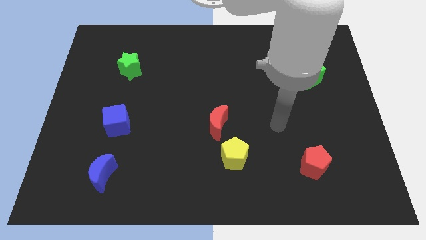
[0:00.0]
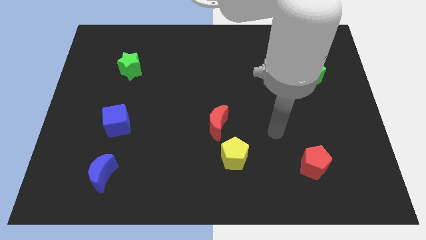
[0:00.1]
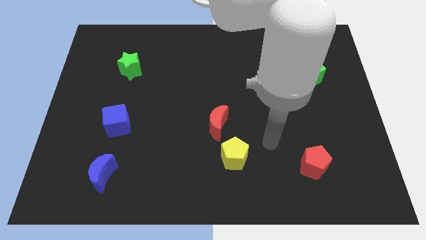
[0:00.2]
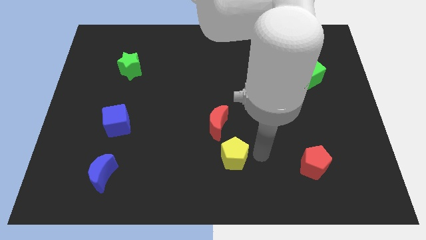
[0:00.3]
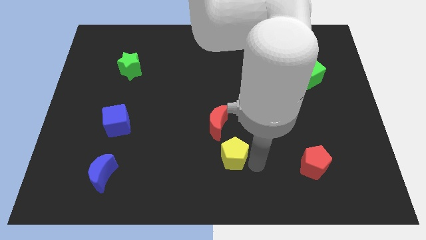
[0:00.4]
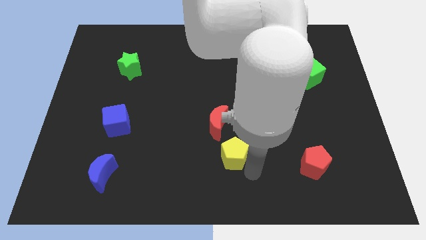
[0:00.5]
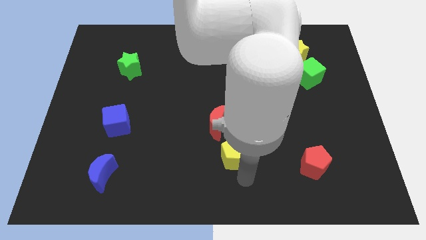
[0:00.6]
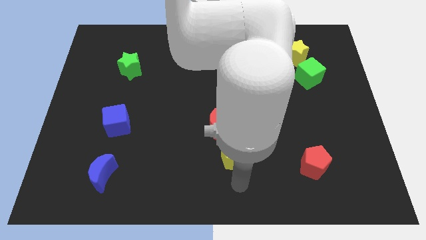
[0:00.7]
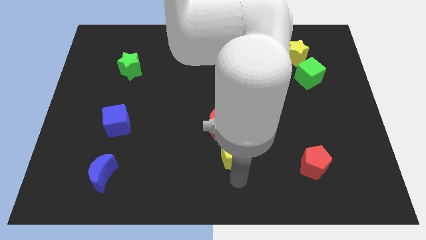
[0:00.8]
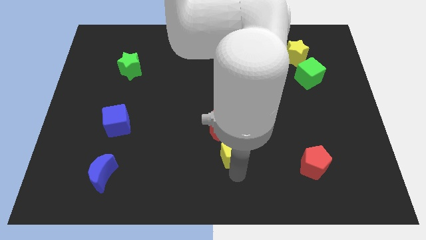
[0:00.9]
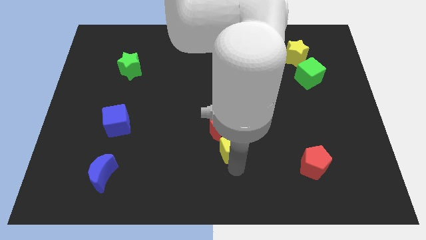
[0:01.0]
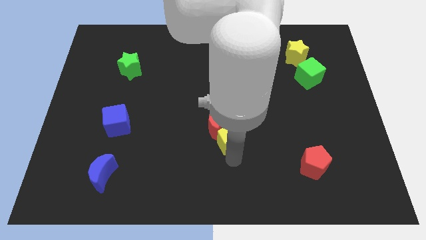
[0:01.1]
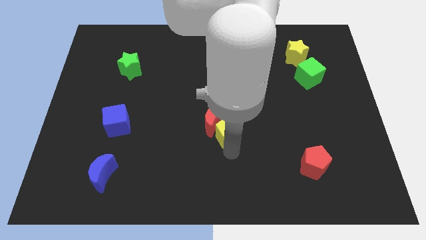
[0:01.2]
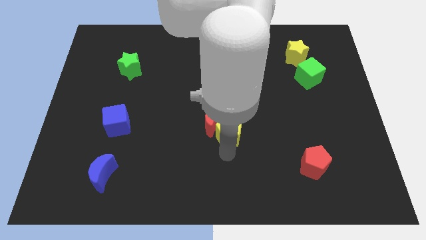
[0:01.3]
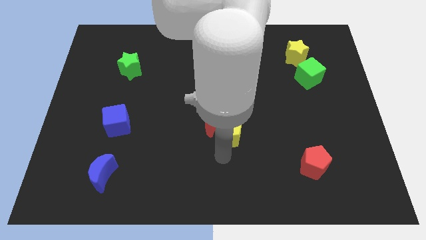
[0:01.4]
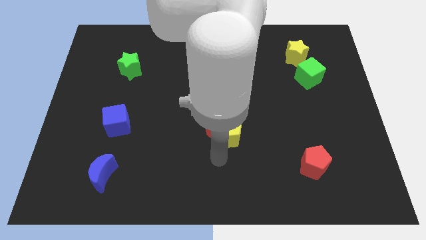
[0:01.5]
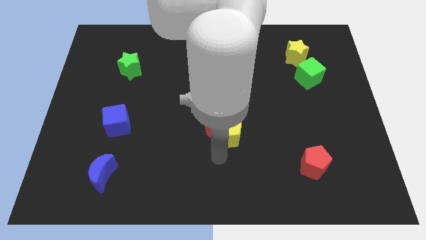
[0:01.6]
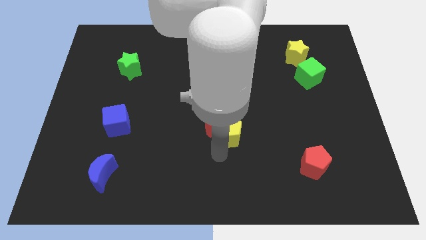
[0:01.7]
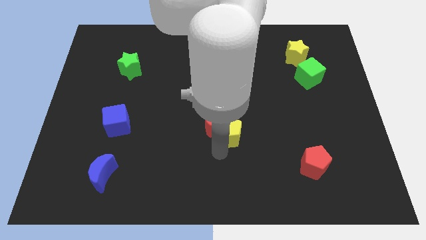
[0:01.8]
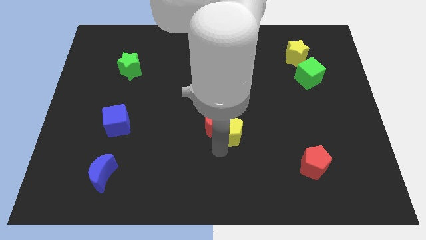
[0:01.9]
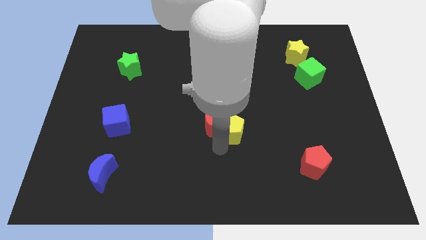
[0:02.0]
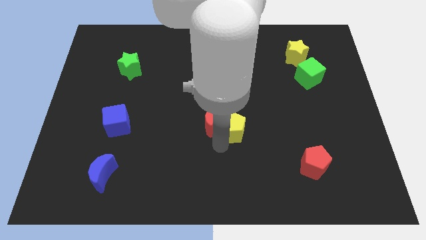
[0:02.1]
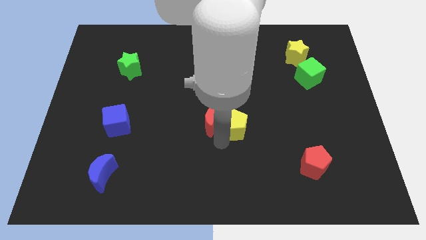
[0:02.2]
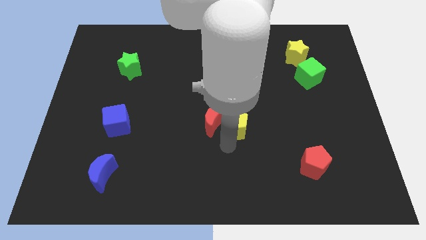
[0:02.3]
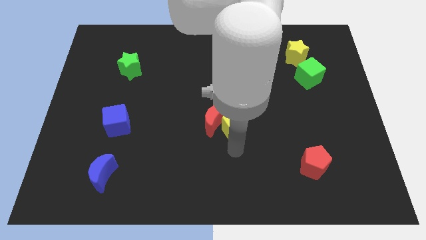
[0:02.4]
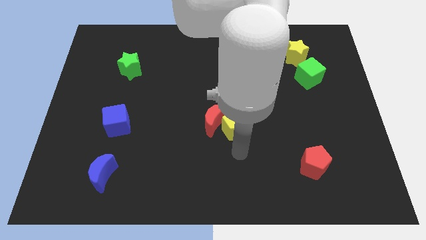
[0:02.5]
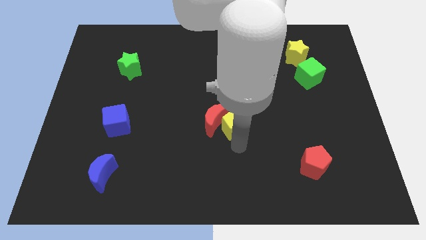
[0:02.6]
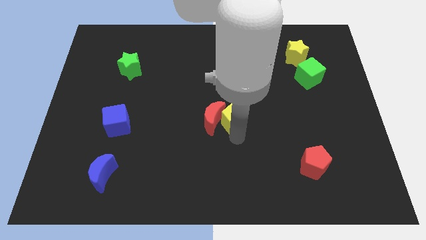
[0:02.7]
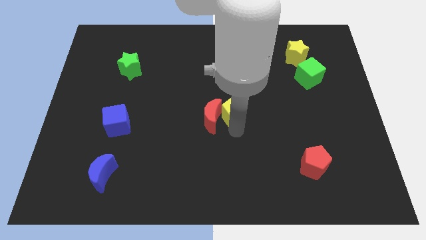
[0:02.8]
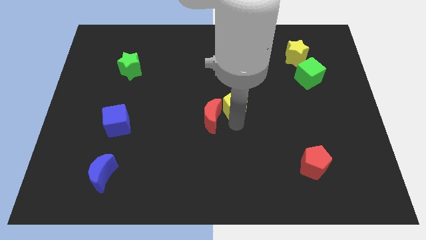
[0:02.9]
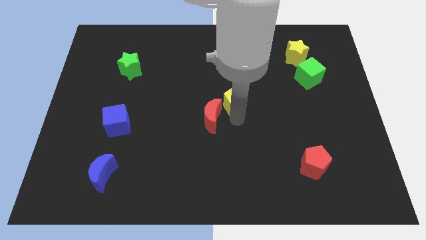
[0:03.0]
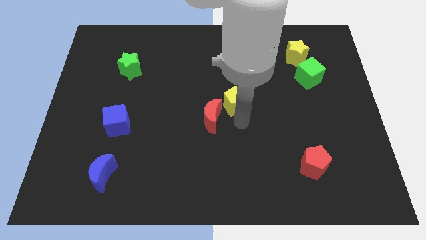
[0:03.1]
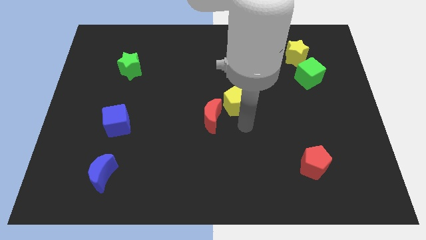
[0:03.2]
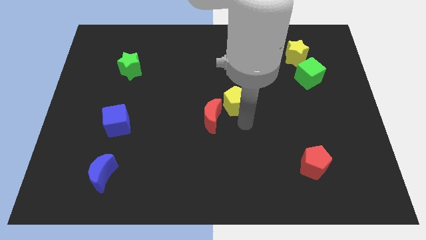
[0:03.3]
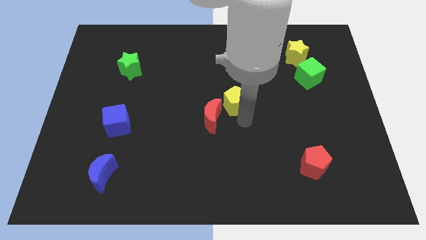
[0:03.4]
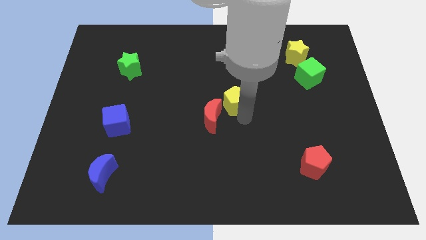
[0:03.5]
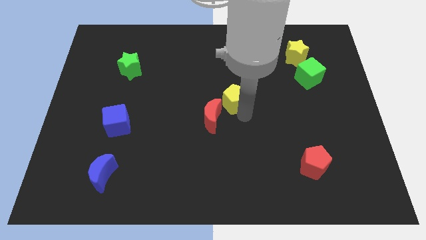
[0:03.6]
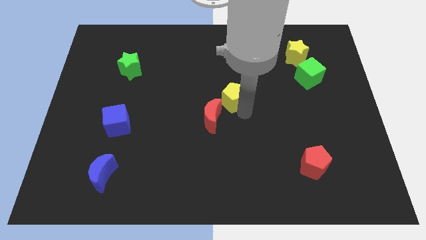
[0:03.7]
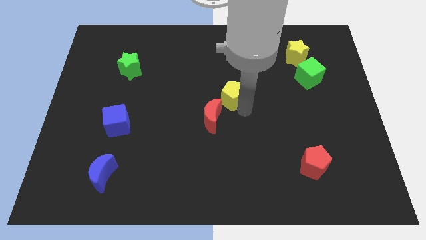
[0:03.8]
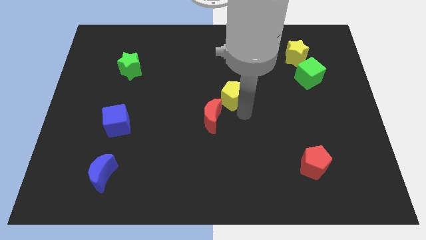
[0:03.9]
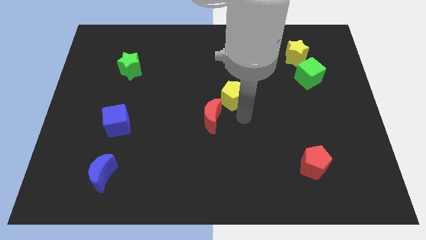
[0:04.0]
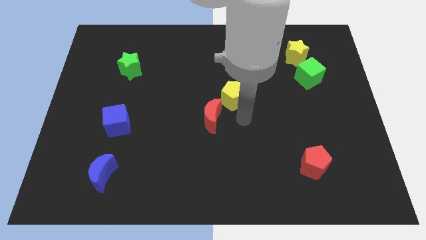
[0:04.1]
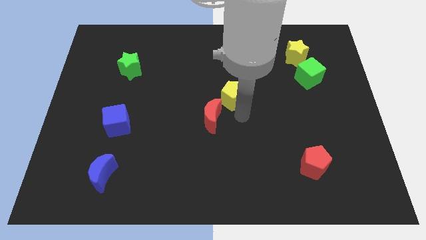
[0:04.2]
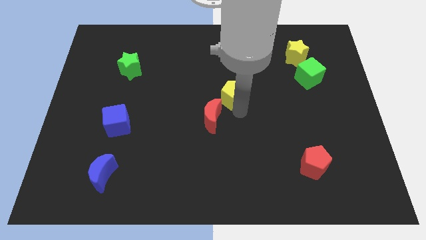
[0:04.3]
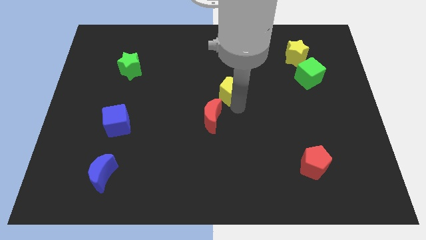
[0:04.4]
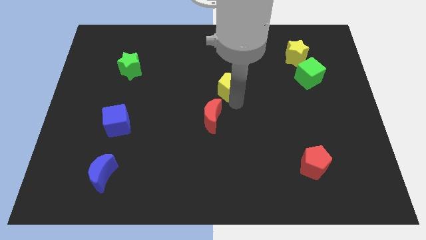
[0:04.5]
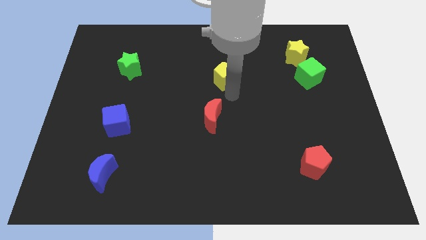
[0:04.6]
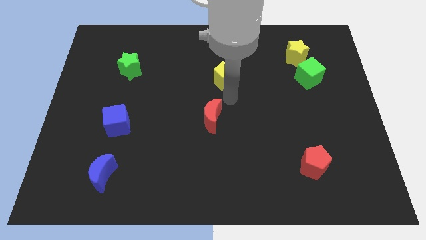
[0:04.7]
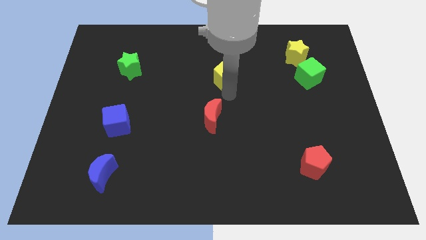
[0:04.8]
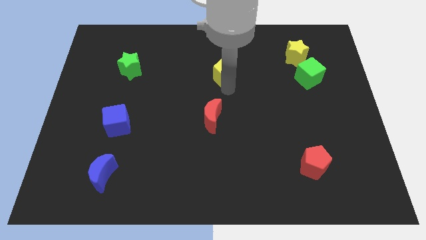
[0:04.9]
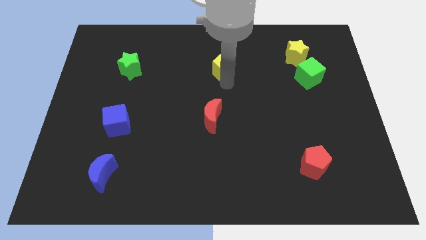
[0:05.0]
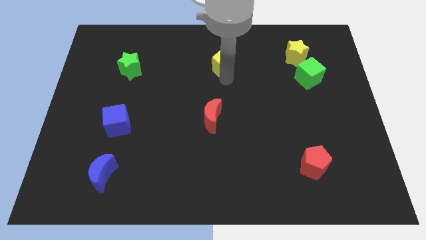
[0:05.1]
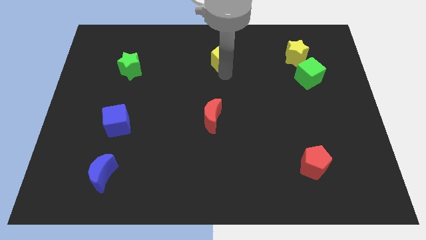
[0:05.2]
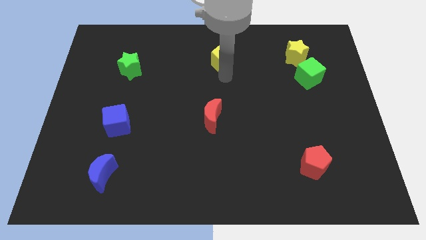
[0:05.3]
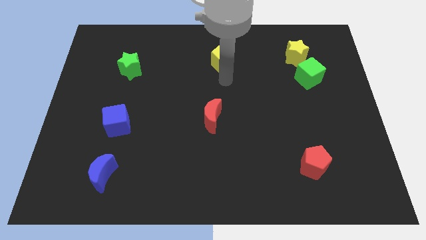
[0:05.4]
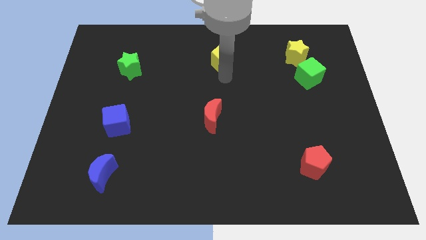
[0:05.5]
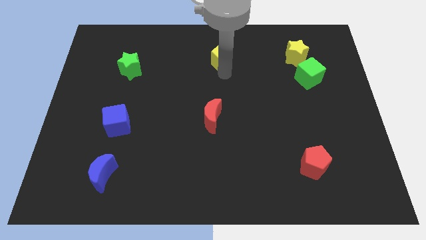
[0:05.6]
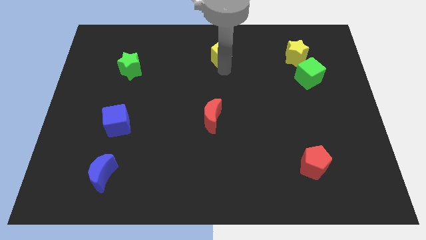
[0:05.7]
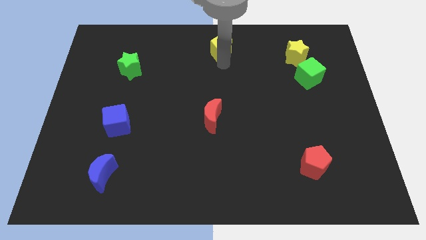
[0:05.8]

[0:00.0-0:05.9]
put the yellow pentagon to the top side
